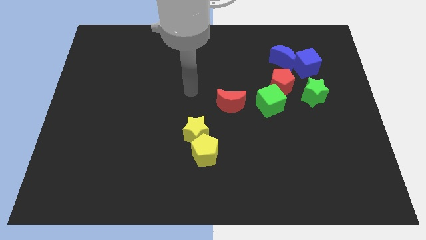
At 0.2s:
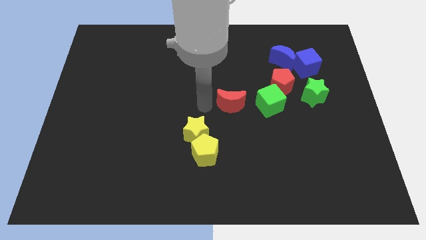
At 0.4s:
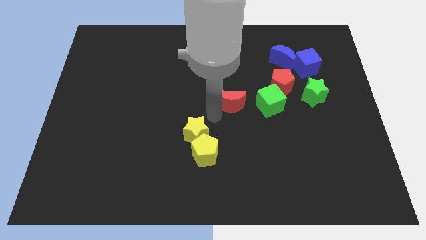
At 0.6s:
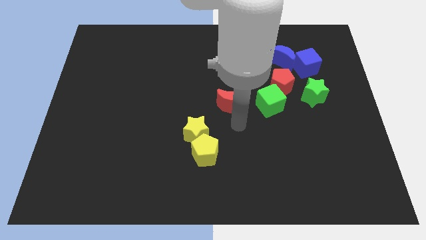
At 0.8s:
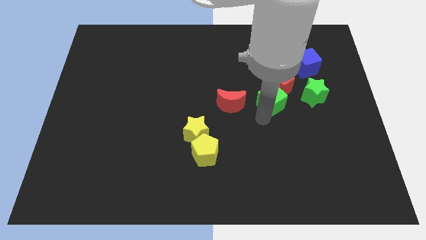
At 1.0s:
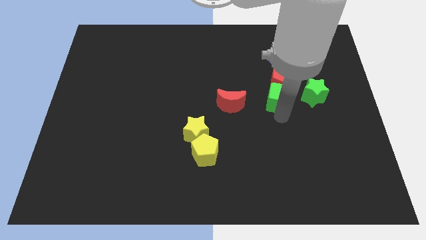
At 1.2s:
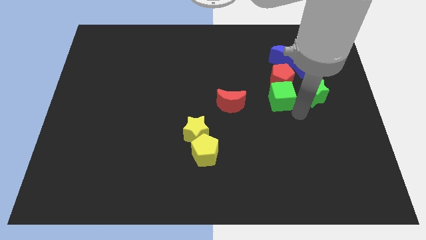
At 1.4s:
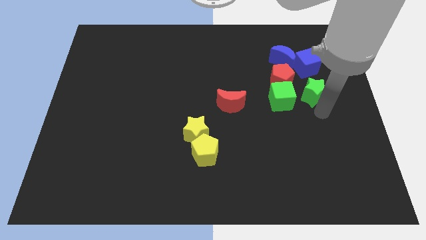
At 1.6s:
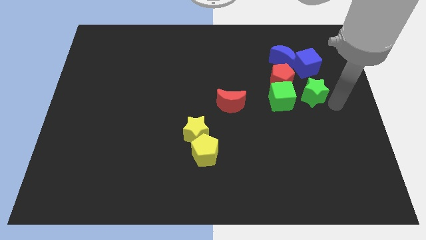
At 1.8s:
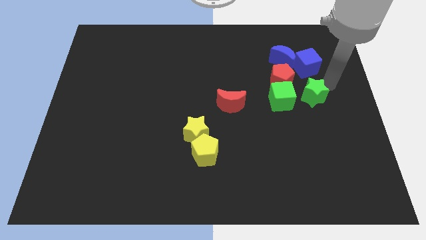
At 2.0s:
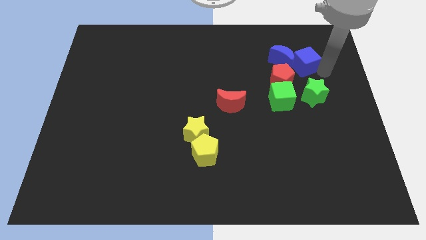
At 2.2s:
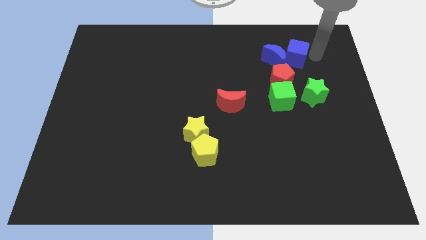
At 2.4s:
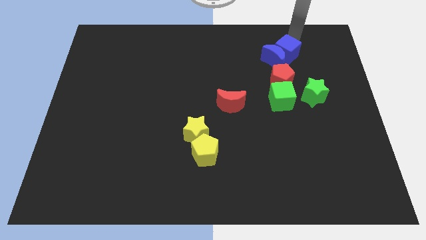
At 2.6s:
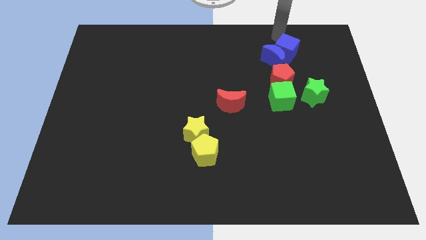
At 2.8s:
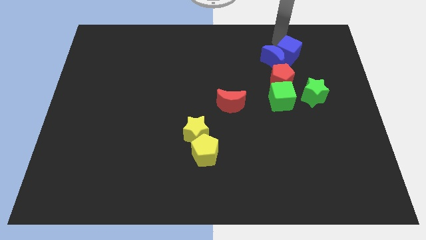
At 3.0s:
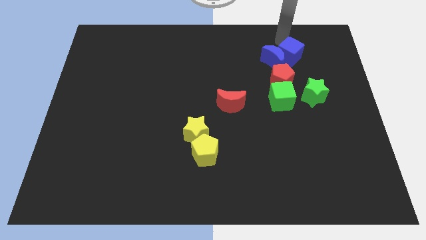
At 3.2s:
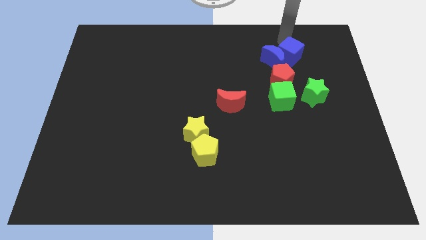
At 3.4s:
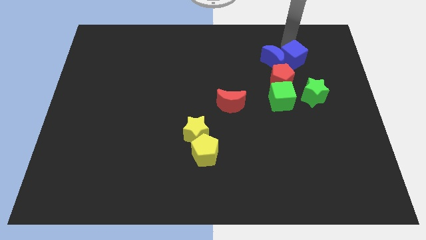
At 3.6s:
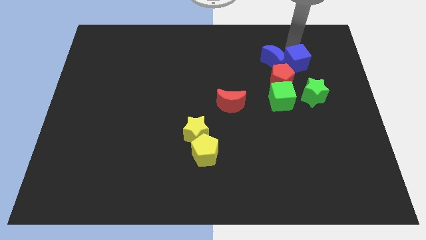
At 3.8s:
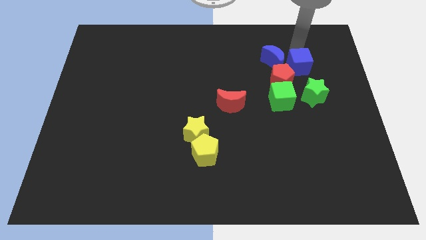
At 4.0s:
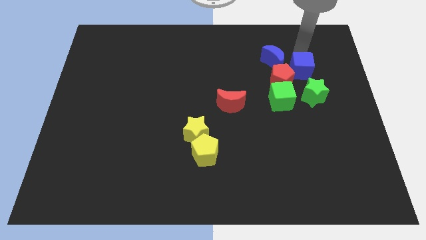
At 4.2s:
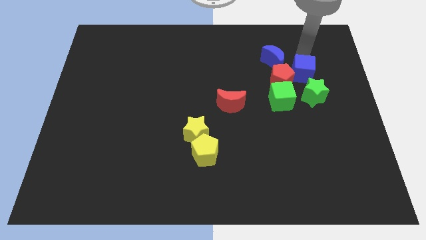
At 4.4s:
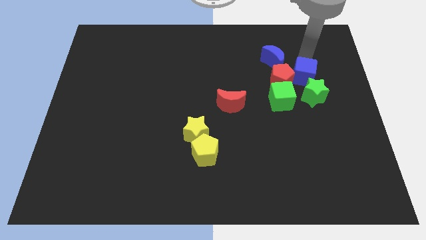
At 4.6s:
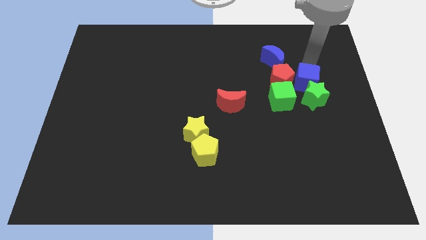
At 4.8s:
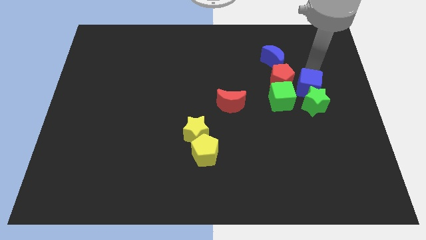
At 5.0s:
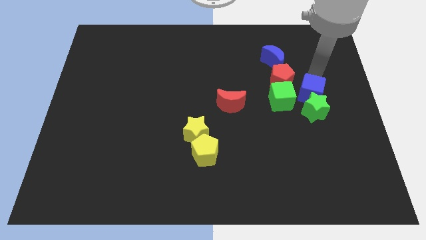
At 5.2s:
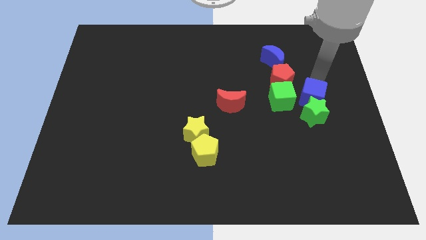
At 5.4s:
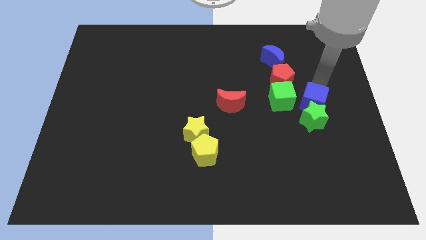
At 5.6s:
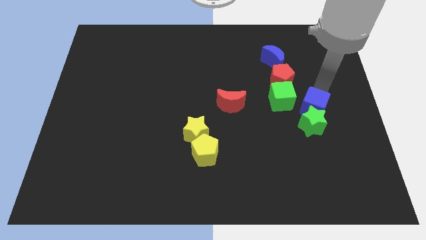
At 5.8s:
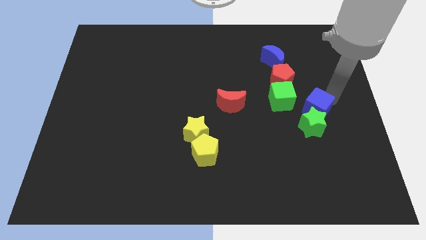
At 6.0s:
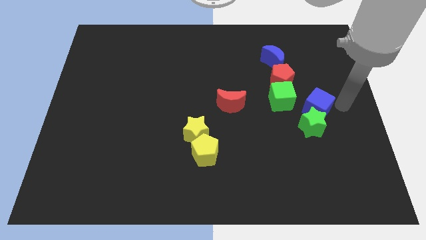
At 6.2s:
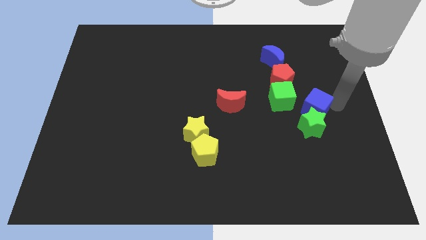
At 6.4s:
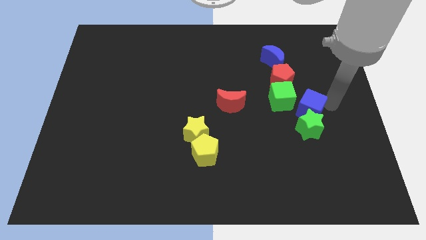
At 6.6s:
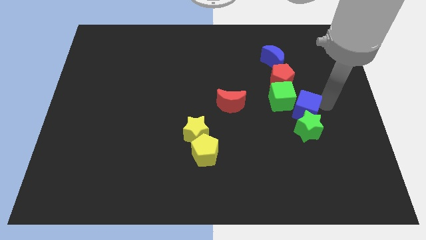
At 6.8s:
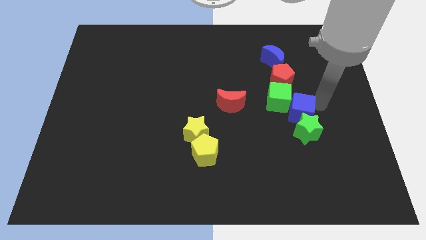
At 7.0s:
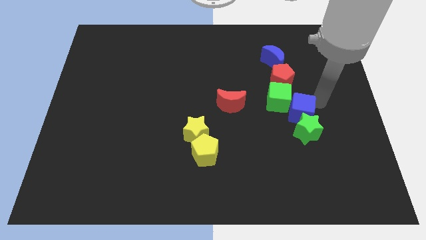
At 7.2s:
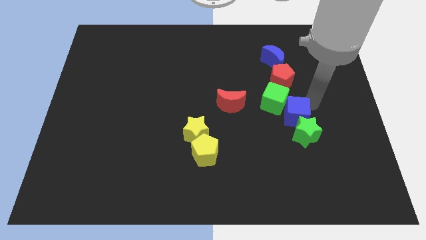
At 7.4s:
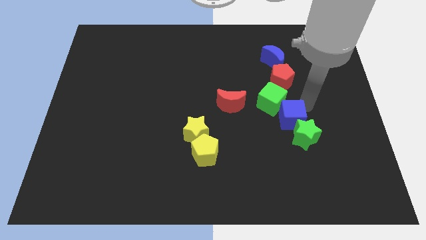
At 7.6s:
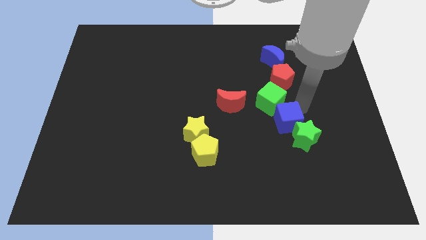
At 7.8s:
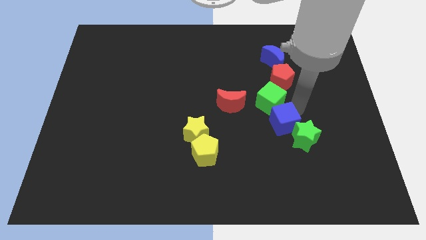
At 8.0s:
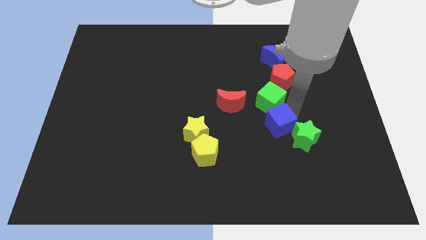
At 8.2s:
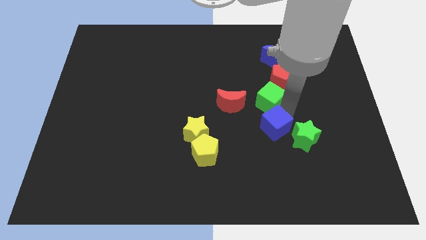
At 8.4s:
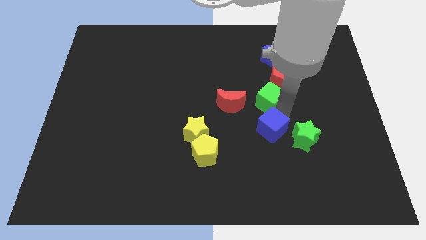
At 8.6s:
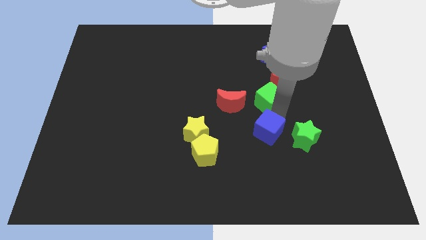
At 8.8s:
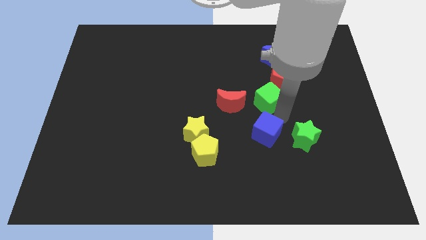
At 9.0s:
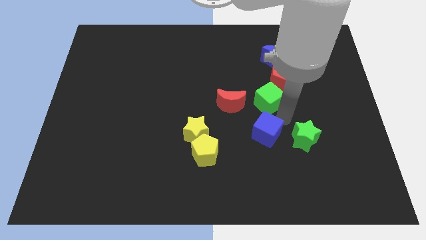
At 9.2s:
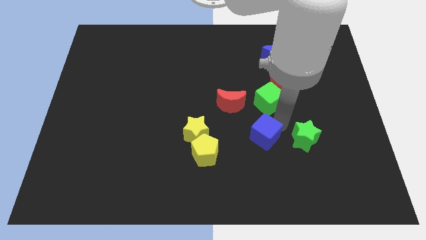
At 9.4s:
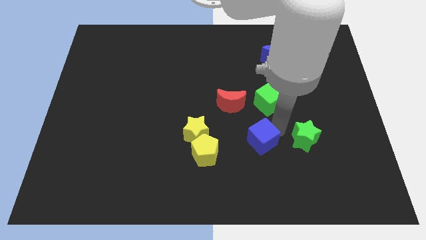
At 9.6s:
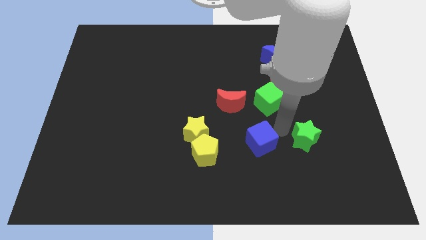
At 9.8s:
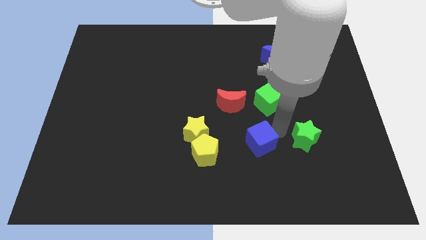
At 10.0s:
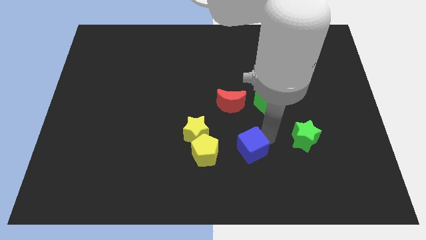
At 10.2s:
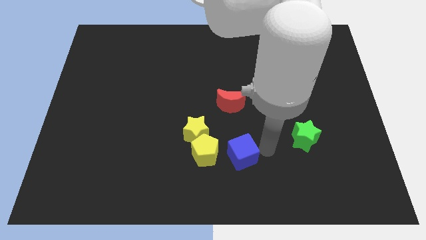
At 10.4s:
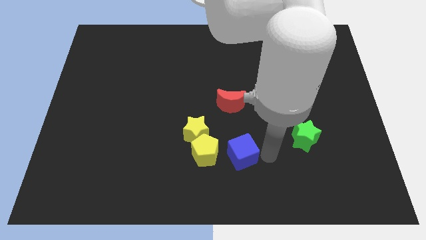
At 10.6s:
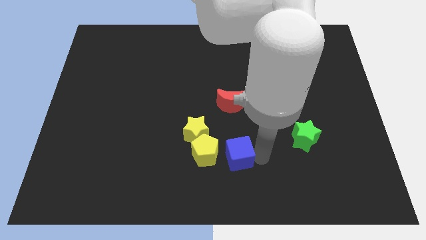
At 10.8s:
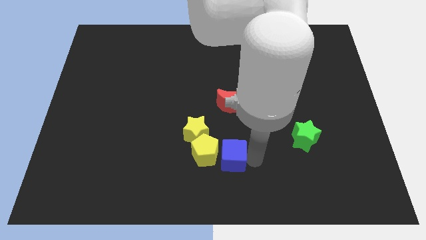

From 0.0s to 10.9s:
push the blue cube towards the yellow pentagon

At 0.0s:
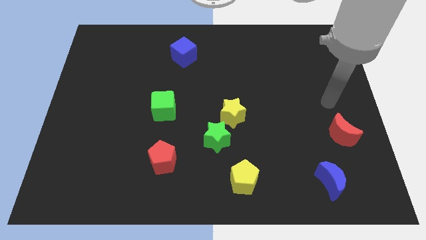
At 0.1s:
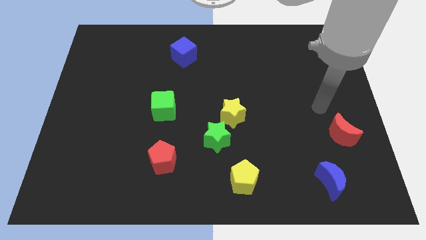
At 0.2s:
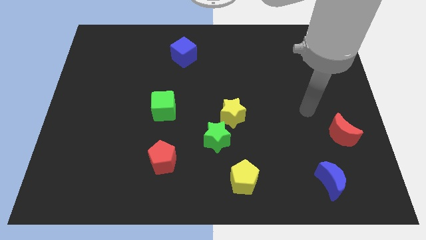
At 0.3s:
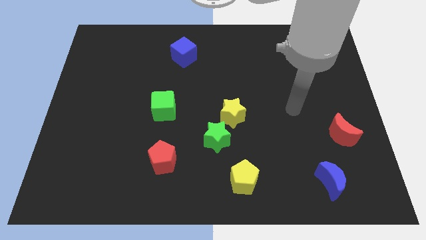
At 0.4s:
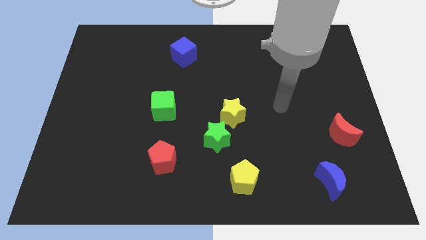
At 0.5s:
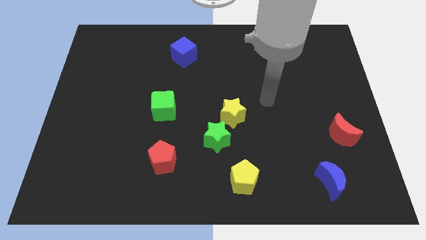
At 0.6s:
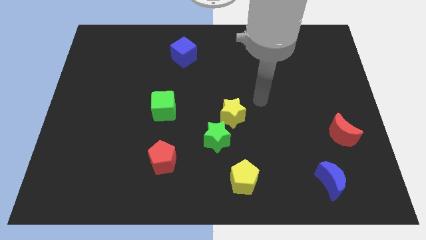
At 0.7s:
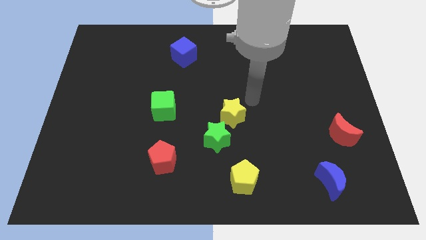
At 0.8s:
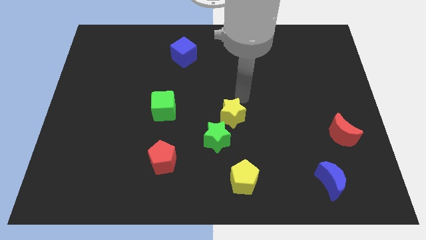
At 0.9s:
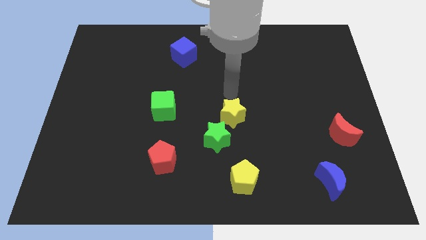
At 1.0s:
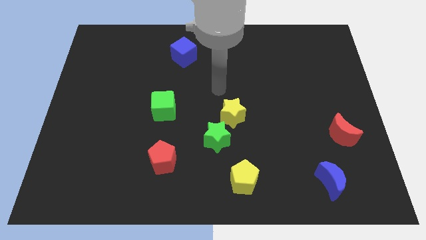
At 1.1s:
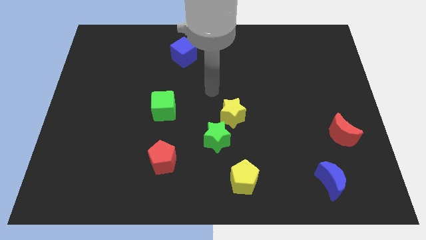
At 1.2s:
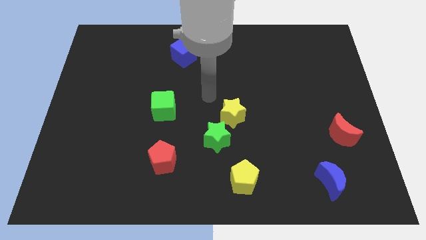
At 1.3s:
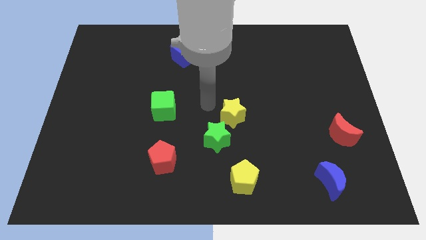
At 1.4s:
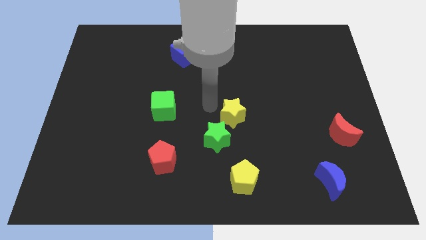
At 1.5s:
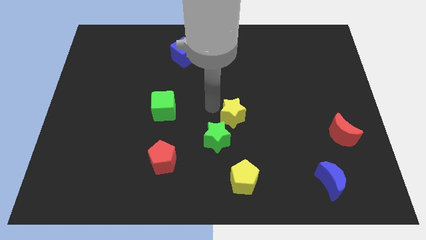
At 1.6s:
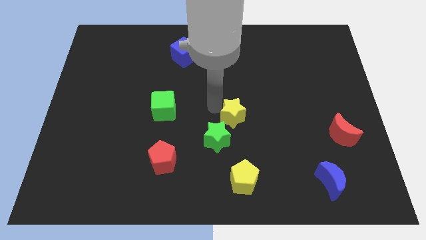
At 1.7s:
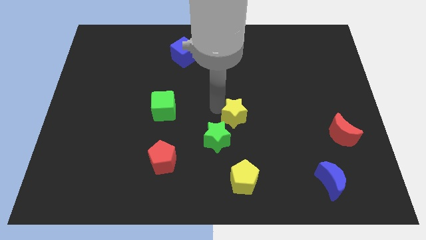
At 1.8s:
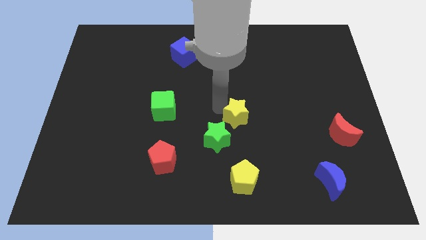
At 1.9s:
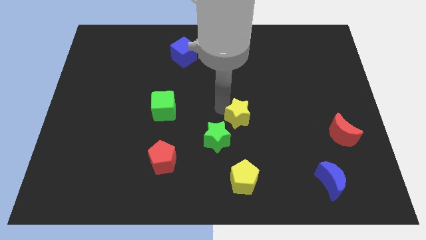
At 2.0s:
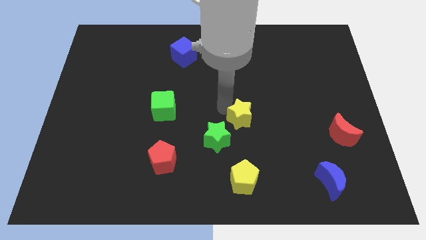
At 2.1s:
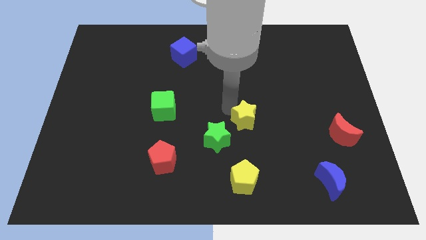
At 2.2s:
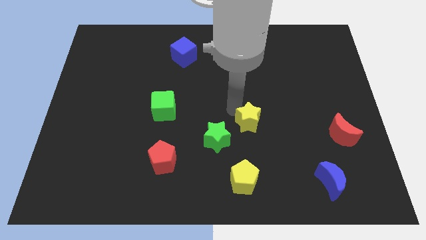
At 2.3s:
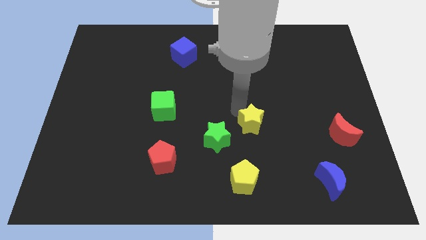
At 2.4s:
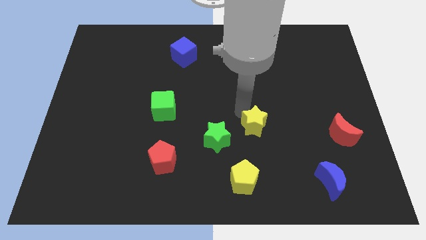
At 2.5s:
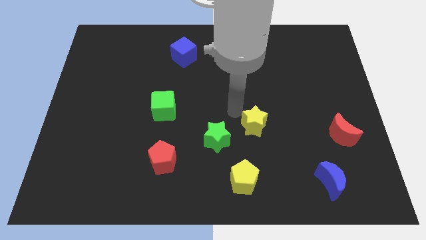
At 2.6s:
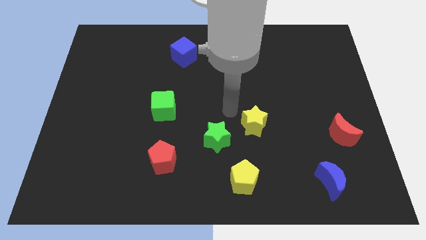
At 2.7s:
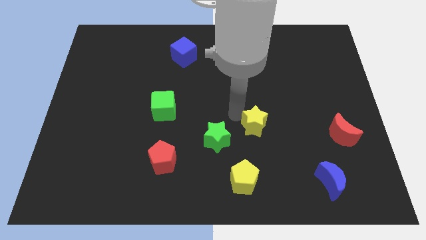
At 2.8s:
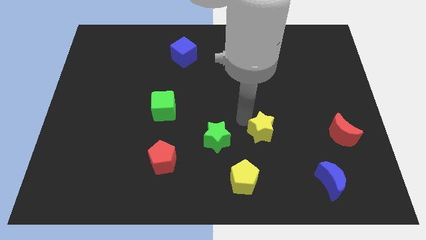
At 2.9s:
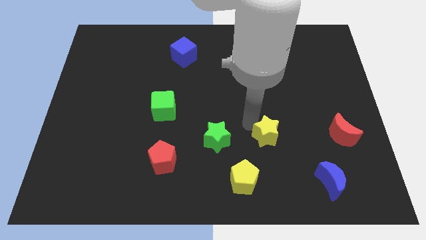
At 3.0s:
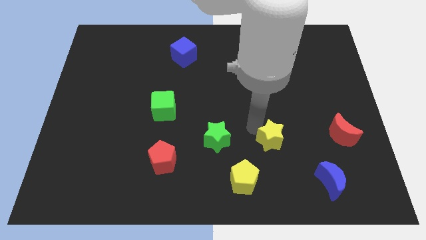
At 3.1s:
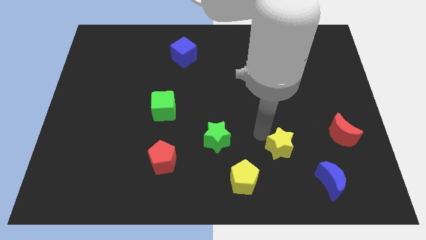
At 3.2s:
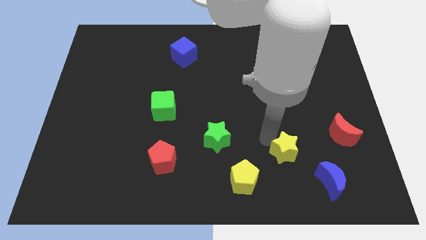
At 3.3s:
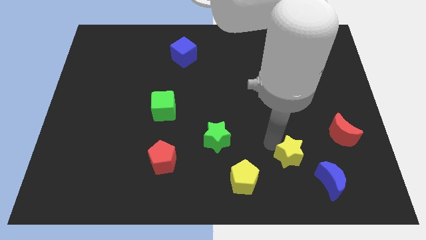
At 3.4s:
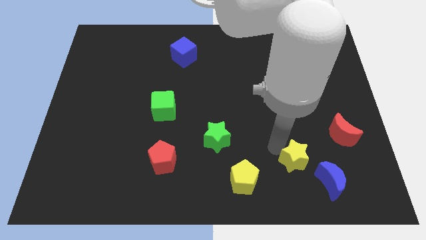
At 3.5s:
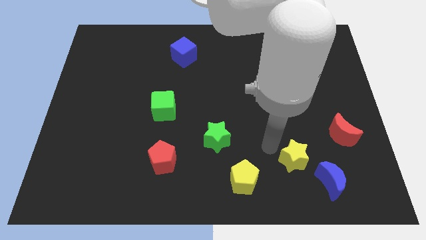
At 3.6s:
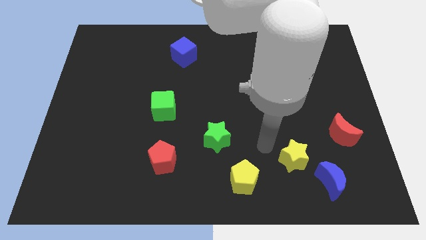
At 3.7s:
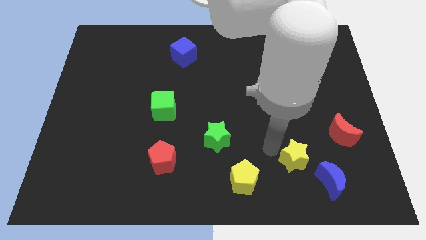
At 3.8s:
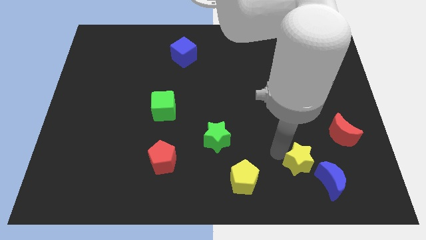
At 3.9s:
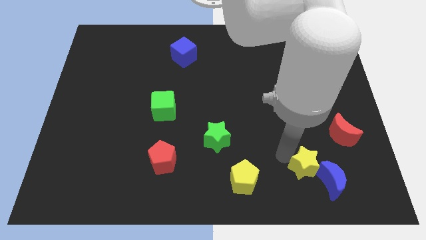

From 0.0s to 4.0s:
put the yellow star towards the blue moon
